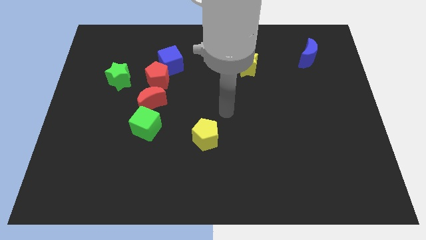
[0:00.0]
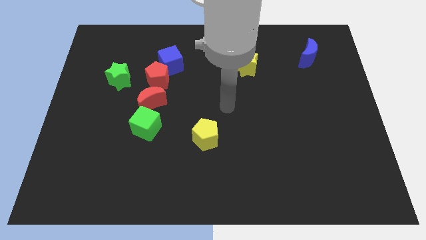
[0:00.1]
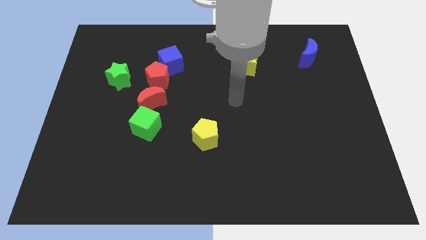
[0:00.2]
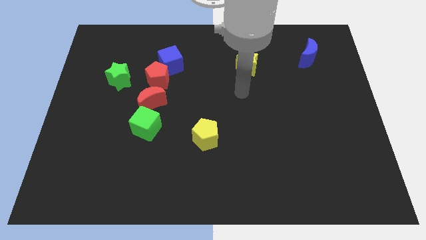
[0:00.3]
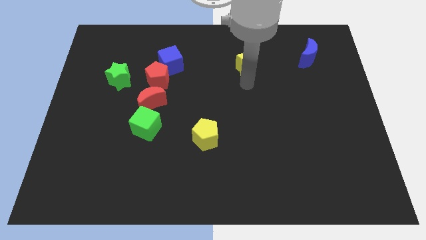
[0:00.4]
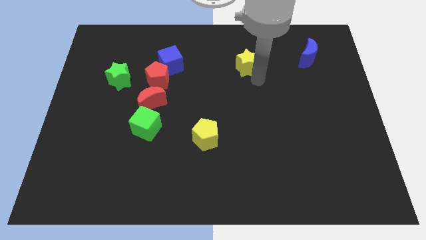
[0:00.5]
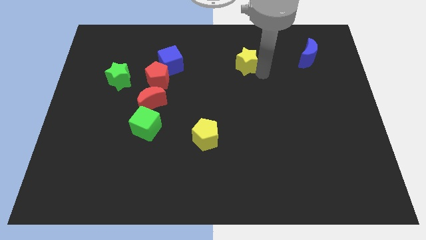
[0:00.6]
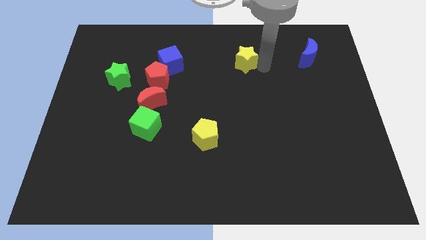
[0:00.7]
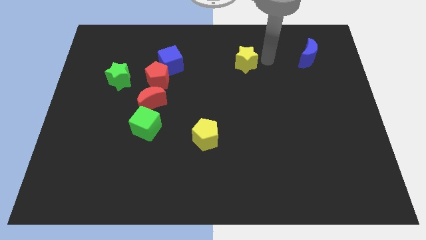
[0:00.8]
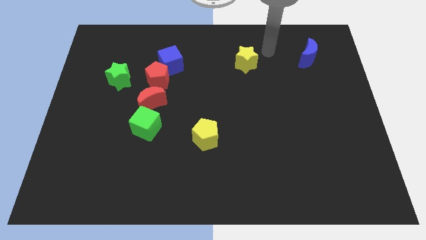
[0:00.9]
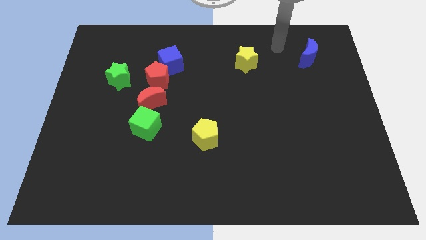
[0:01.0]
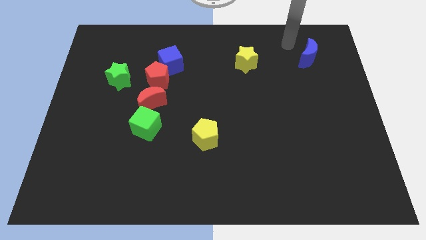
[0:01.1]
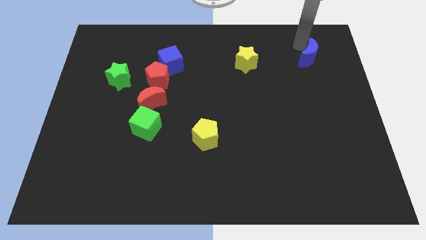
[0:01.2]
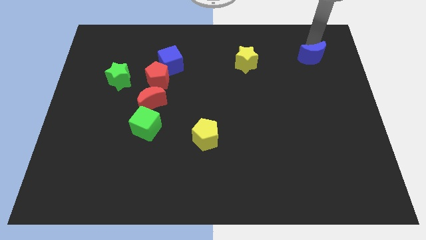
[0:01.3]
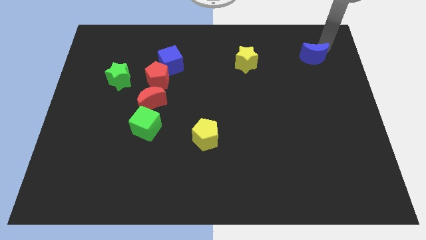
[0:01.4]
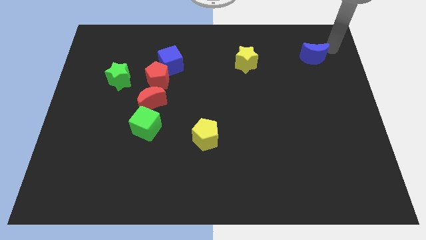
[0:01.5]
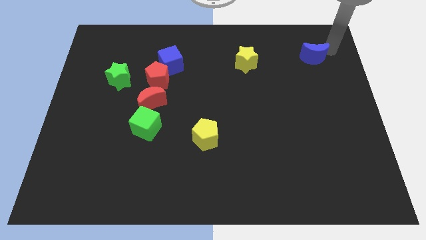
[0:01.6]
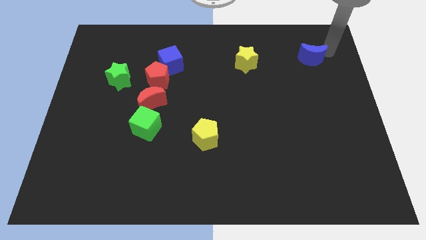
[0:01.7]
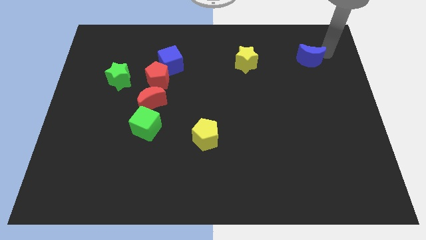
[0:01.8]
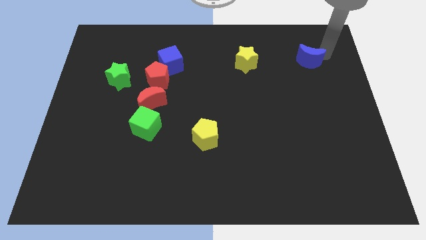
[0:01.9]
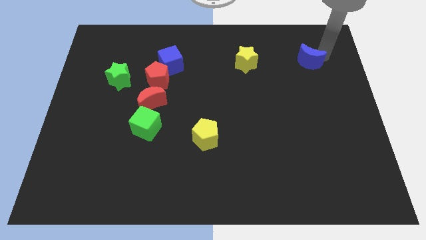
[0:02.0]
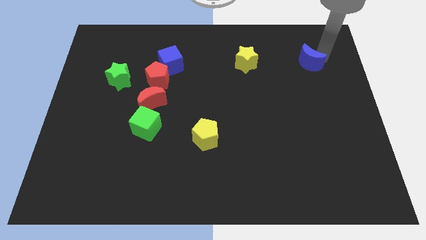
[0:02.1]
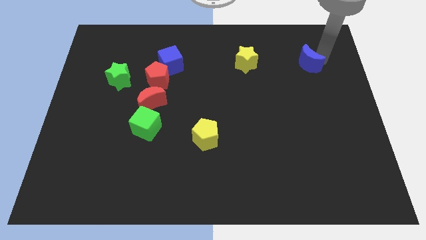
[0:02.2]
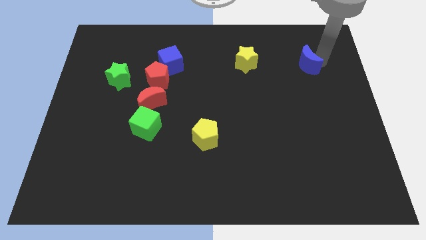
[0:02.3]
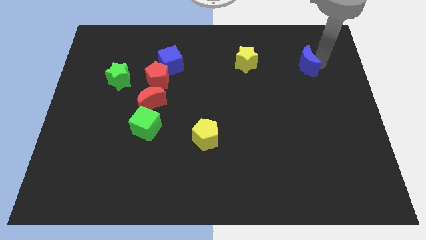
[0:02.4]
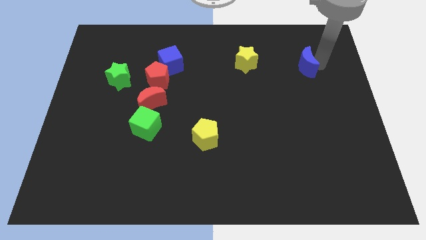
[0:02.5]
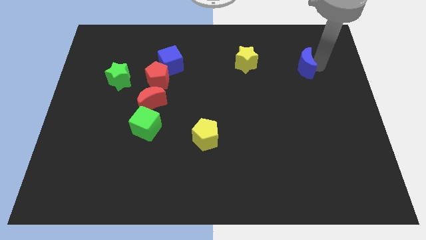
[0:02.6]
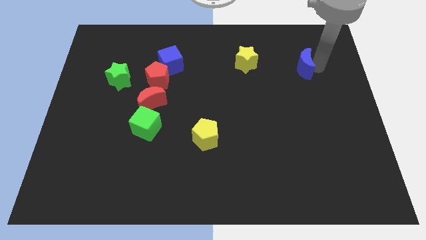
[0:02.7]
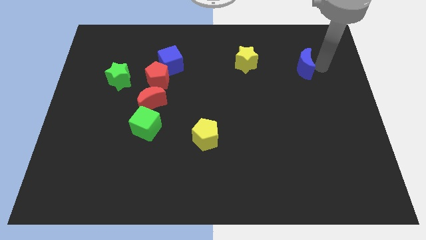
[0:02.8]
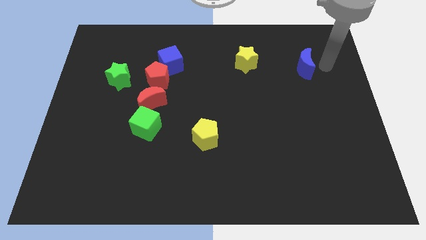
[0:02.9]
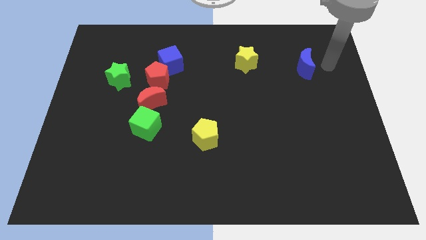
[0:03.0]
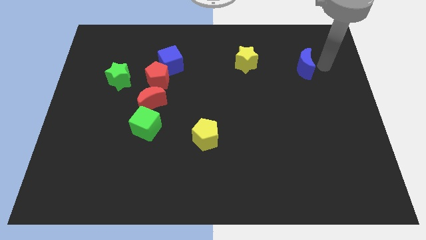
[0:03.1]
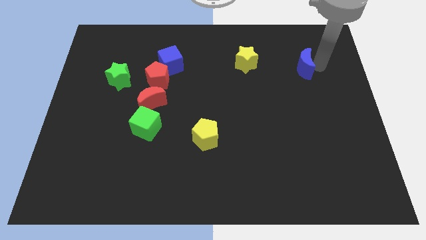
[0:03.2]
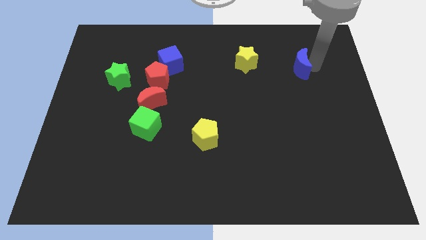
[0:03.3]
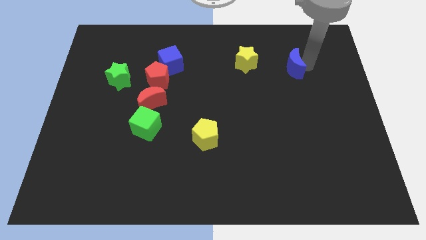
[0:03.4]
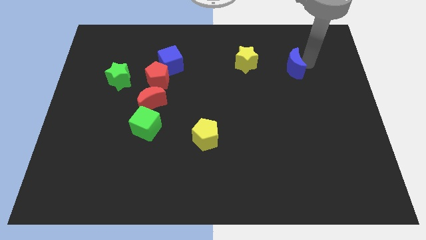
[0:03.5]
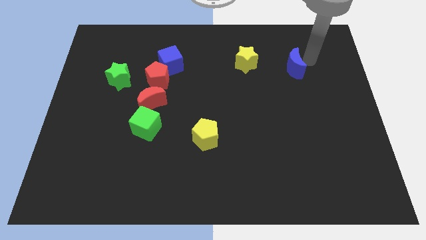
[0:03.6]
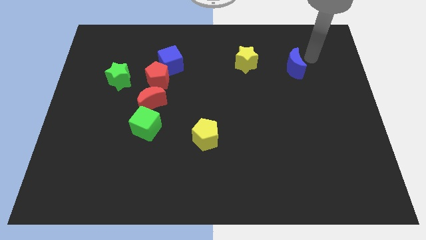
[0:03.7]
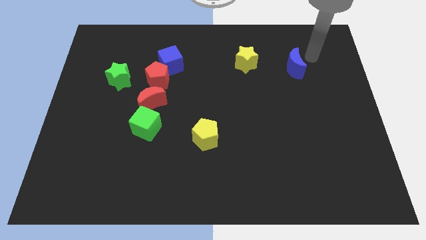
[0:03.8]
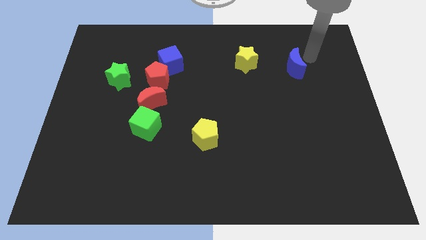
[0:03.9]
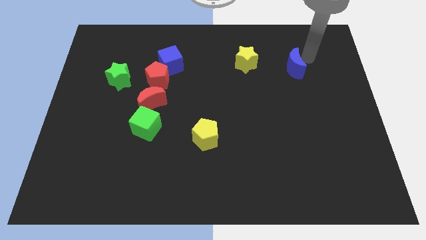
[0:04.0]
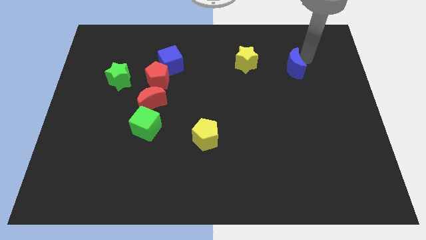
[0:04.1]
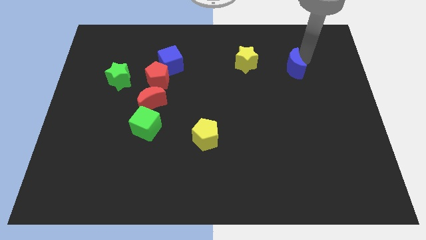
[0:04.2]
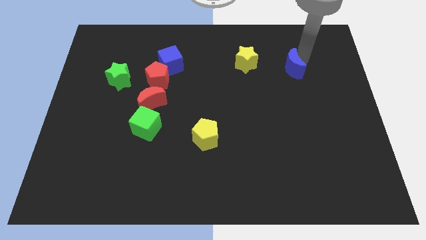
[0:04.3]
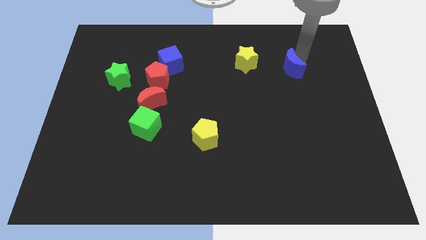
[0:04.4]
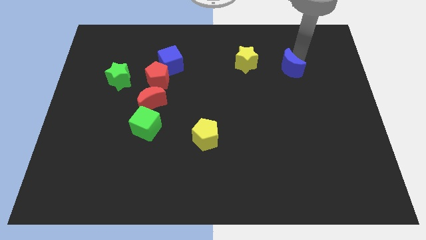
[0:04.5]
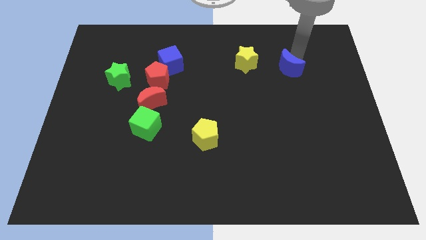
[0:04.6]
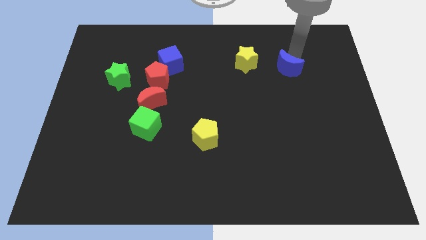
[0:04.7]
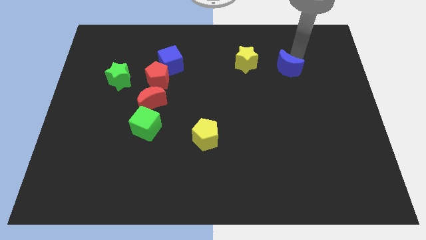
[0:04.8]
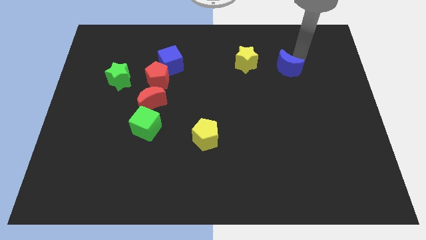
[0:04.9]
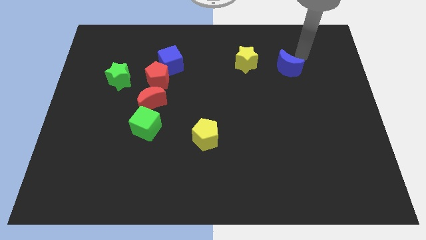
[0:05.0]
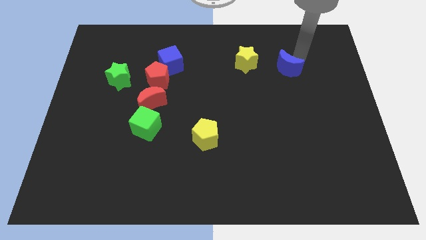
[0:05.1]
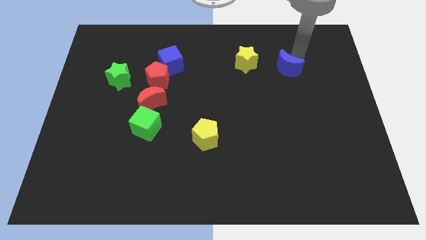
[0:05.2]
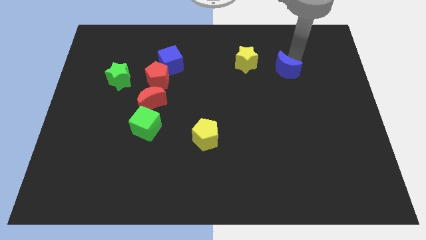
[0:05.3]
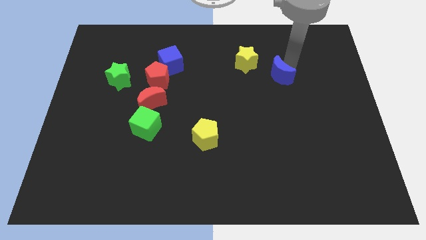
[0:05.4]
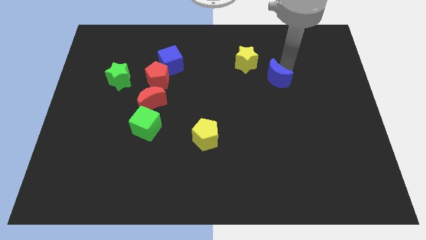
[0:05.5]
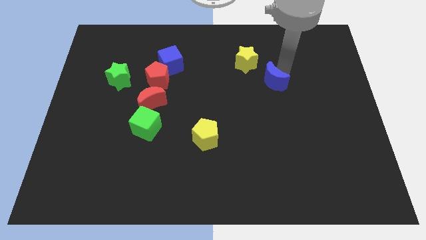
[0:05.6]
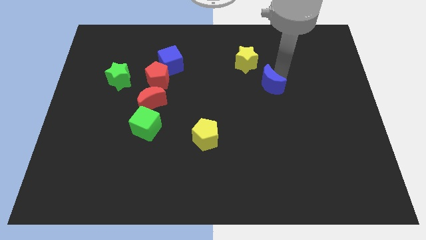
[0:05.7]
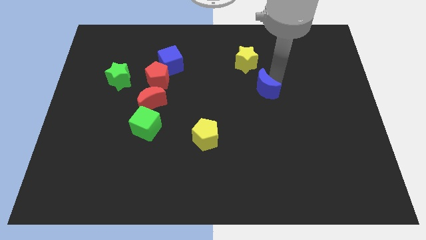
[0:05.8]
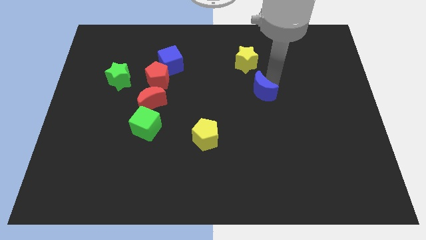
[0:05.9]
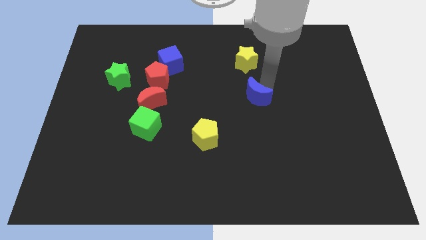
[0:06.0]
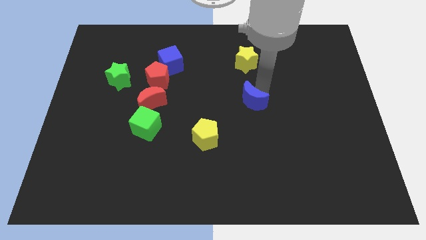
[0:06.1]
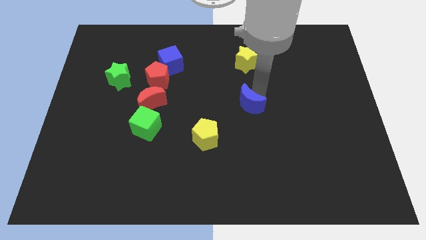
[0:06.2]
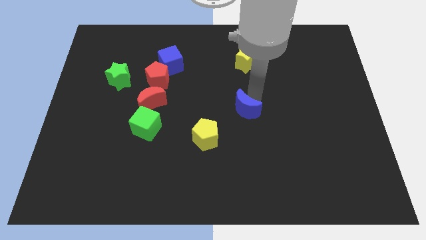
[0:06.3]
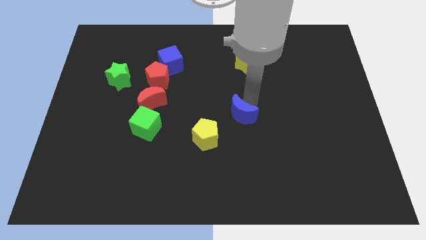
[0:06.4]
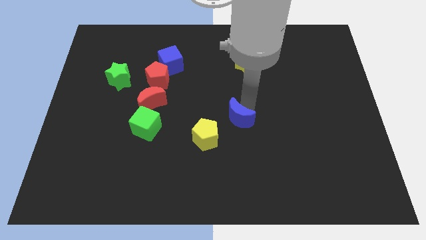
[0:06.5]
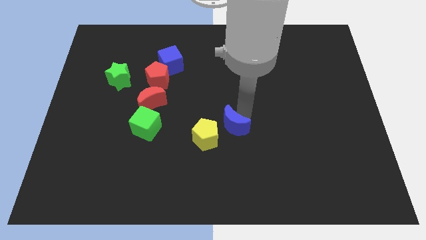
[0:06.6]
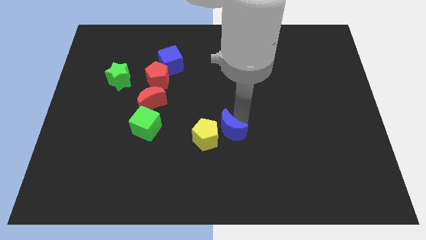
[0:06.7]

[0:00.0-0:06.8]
slide the blue moon towards the yellow pentagon
